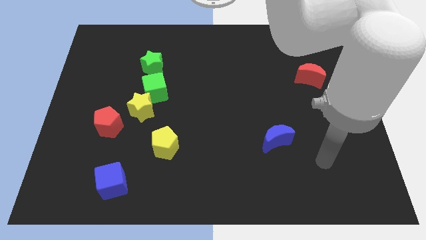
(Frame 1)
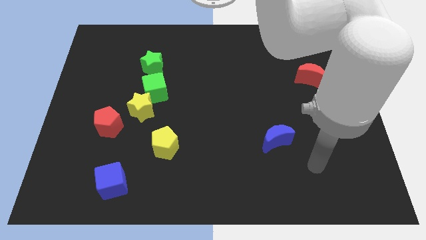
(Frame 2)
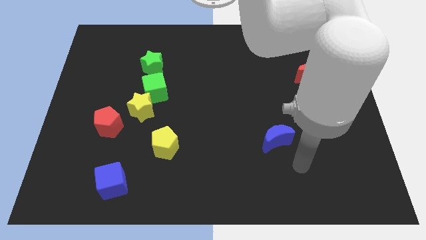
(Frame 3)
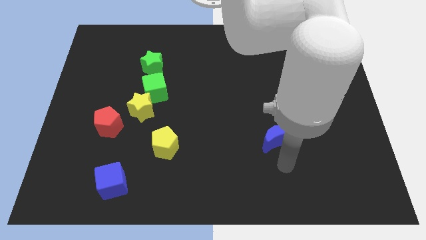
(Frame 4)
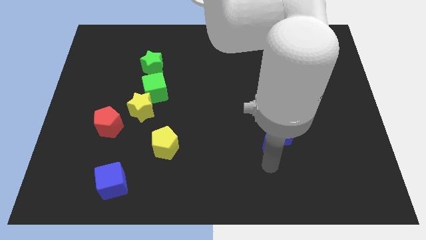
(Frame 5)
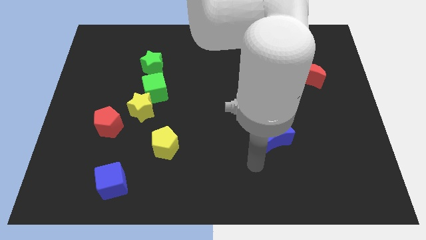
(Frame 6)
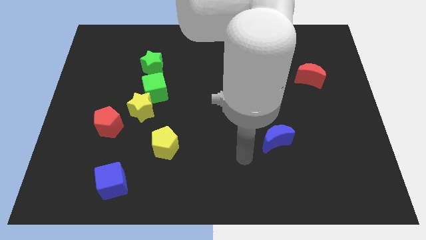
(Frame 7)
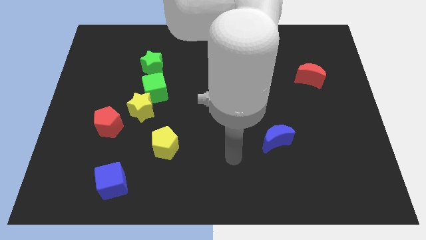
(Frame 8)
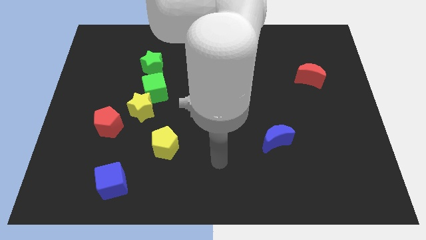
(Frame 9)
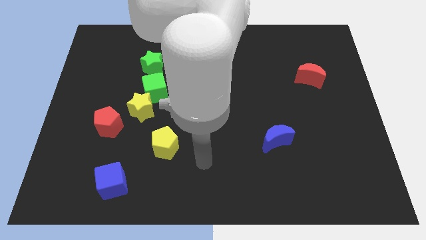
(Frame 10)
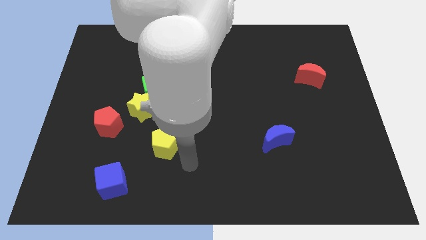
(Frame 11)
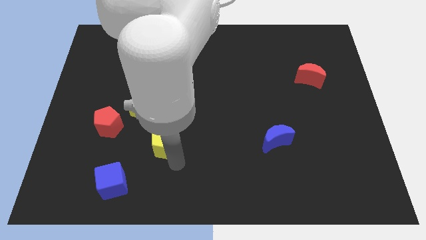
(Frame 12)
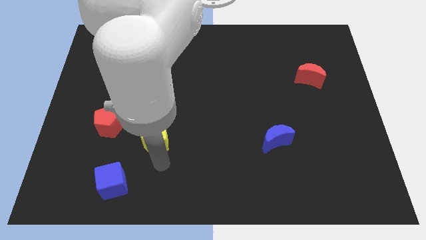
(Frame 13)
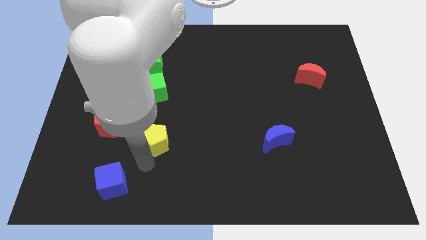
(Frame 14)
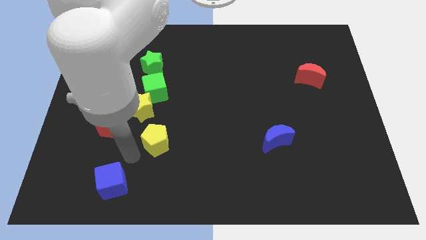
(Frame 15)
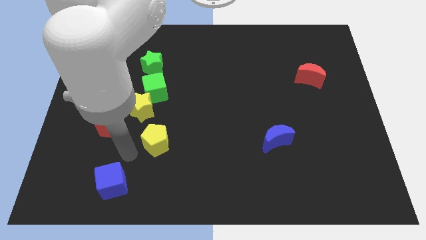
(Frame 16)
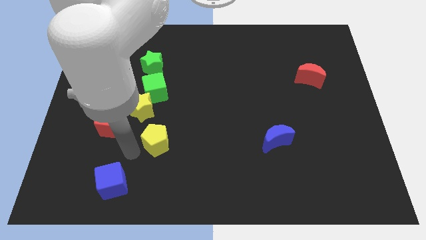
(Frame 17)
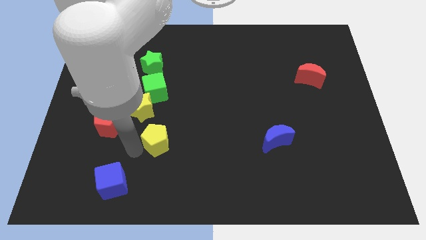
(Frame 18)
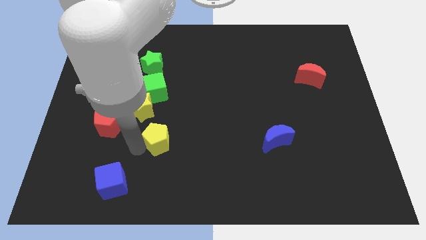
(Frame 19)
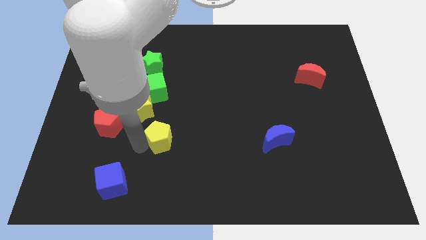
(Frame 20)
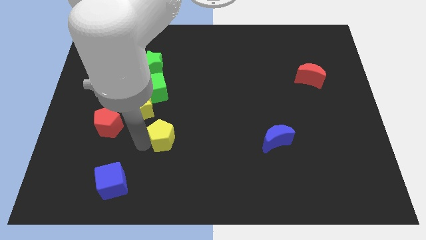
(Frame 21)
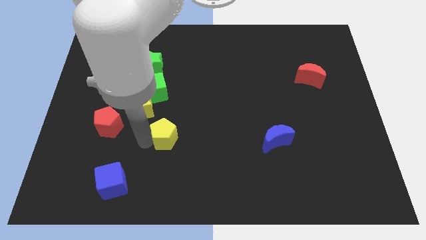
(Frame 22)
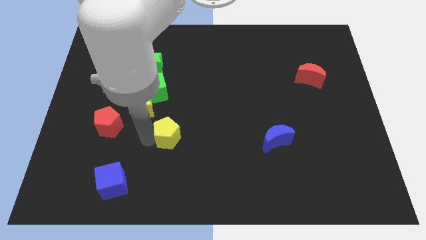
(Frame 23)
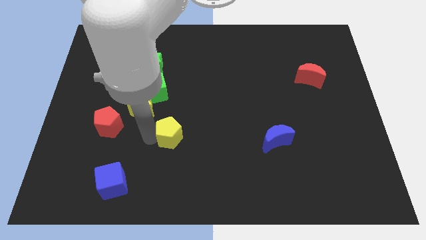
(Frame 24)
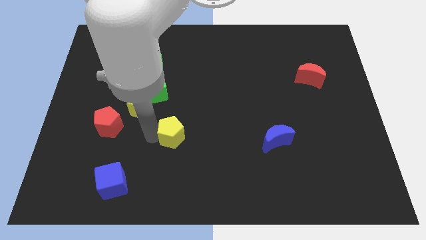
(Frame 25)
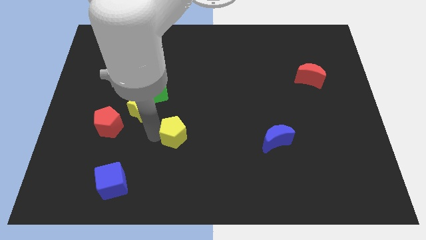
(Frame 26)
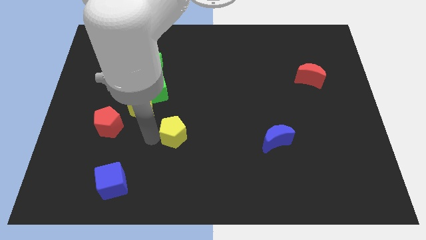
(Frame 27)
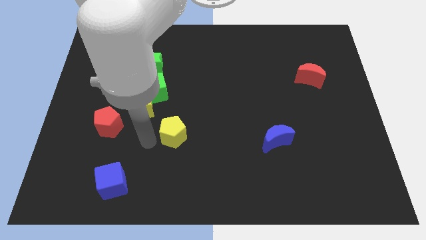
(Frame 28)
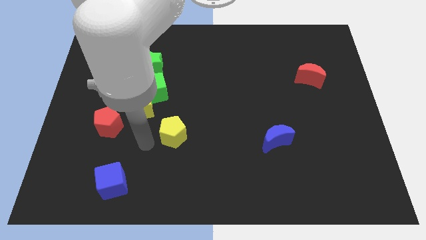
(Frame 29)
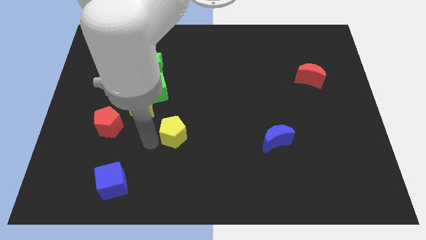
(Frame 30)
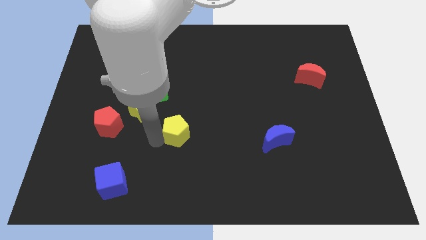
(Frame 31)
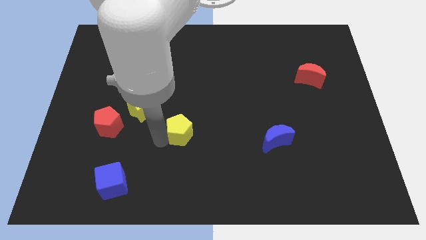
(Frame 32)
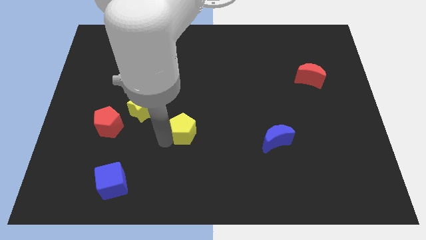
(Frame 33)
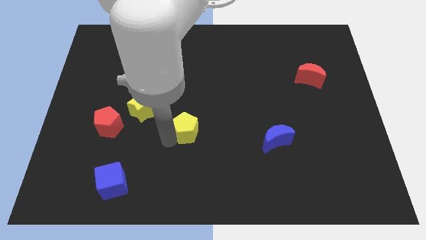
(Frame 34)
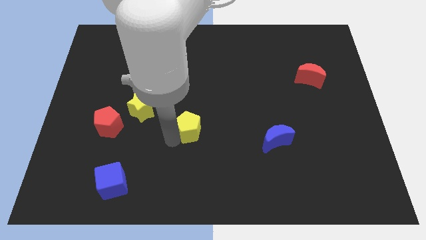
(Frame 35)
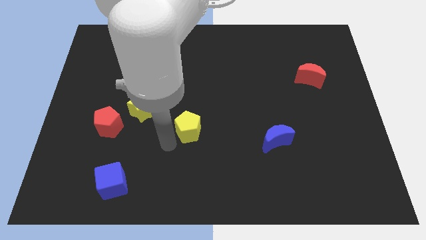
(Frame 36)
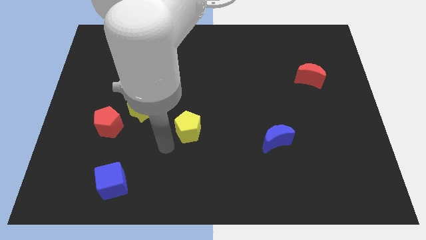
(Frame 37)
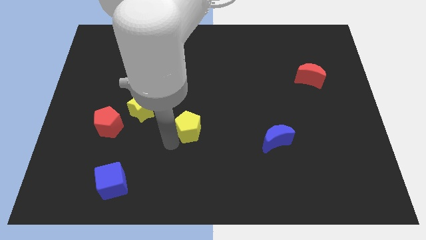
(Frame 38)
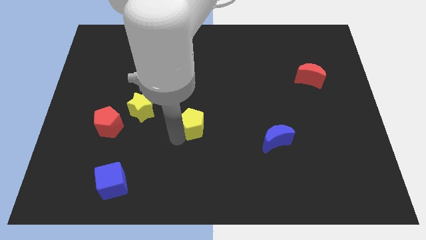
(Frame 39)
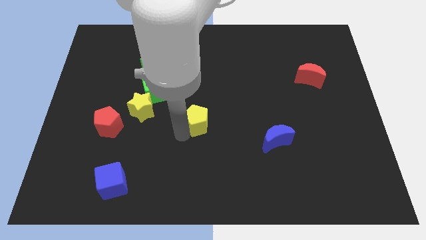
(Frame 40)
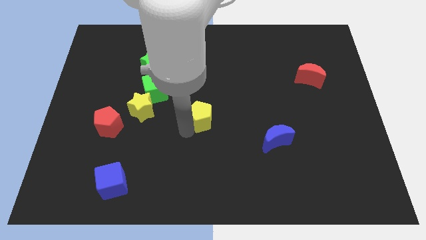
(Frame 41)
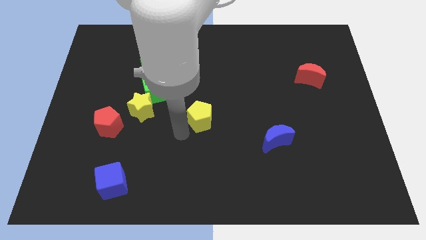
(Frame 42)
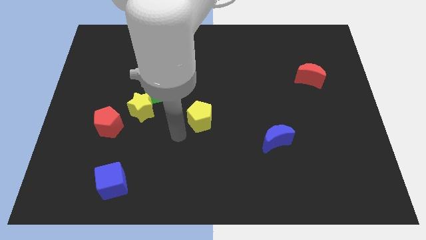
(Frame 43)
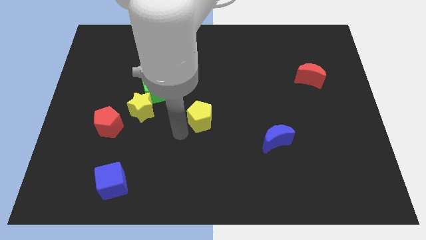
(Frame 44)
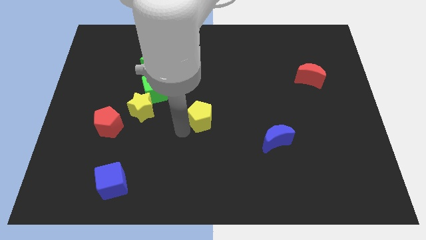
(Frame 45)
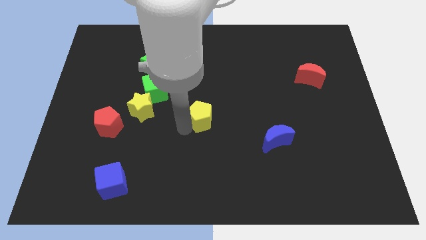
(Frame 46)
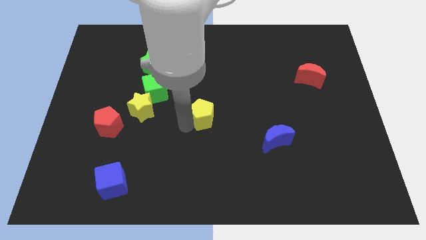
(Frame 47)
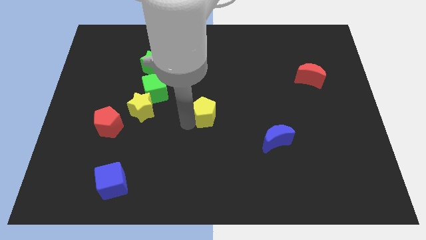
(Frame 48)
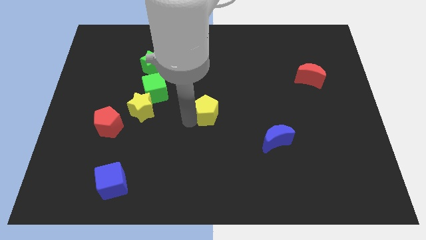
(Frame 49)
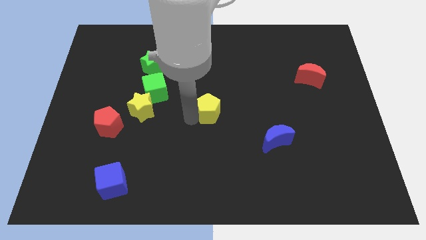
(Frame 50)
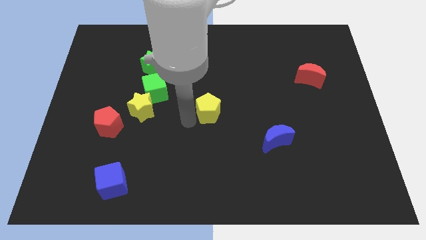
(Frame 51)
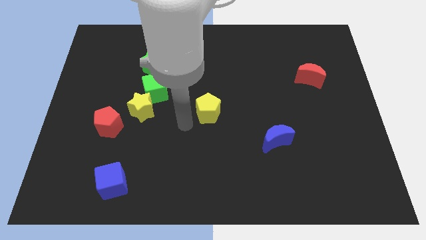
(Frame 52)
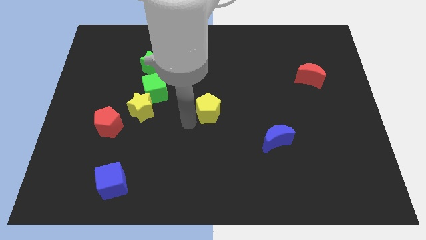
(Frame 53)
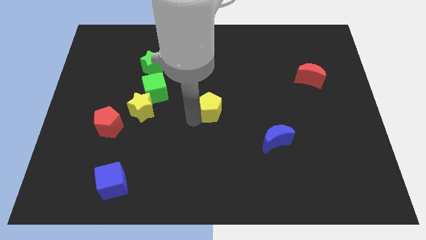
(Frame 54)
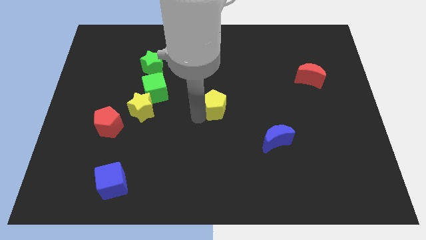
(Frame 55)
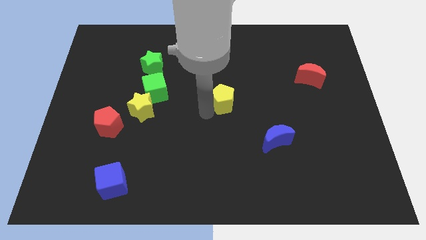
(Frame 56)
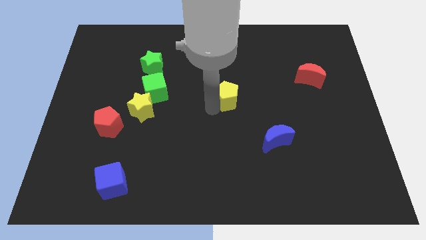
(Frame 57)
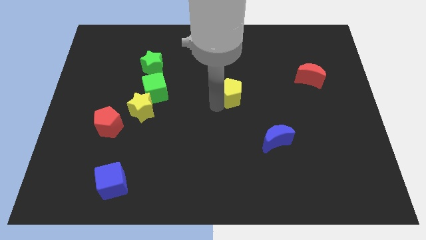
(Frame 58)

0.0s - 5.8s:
push the yellow pentagon up and to the right diagonally

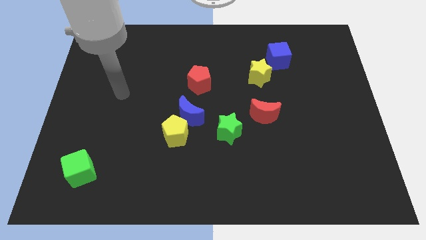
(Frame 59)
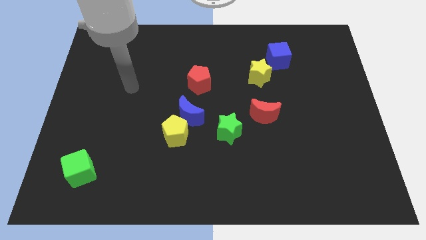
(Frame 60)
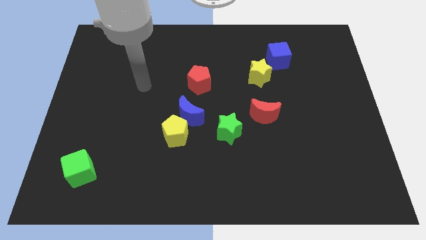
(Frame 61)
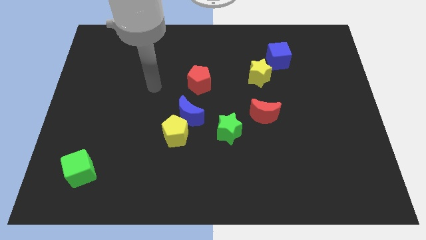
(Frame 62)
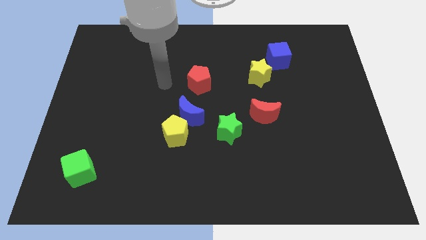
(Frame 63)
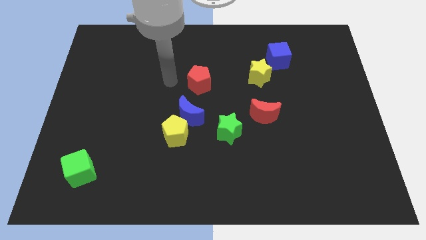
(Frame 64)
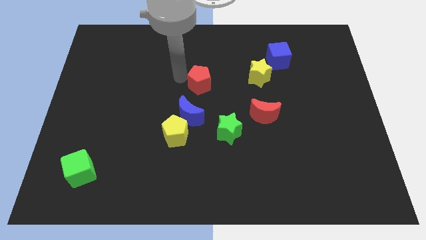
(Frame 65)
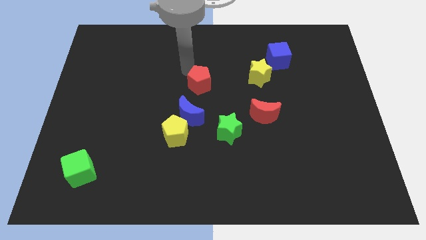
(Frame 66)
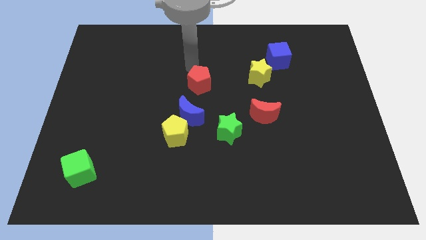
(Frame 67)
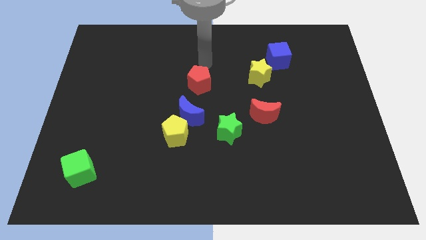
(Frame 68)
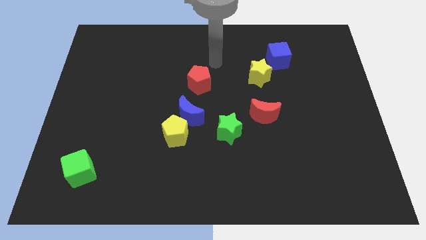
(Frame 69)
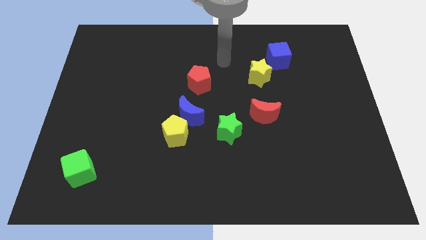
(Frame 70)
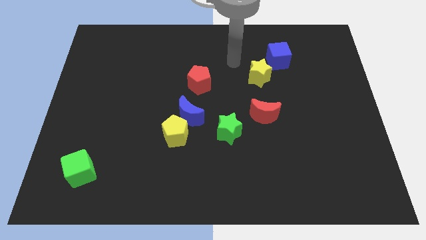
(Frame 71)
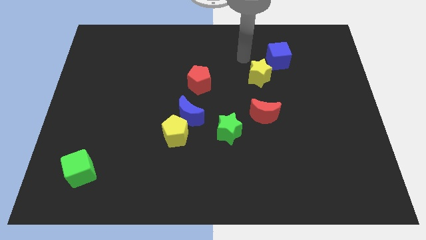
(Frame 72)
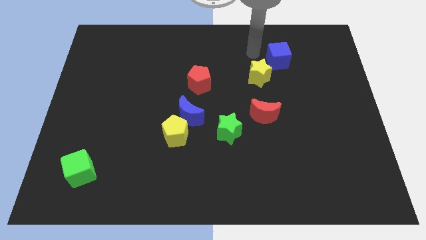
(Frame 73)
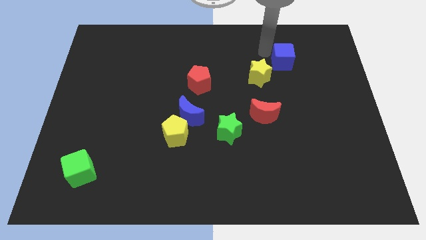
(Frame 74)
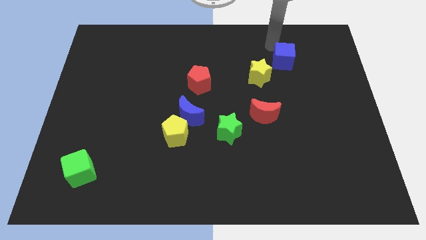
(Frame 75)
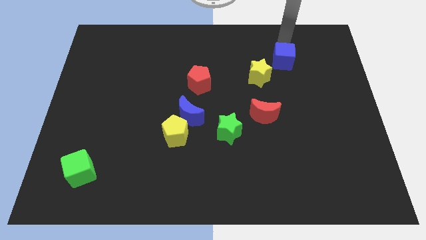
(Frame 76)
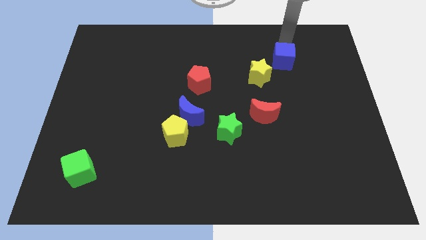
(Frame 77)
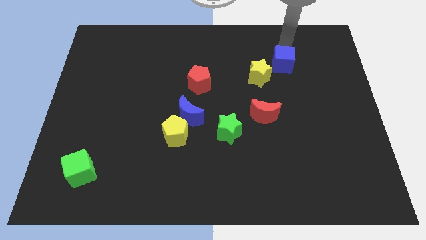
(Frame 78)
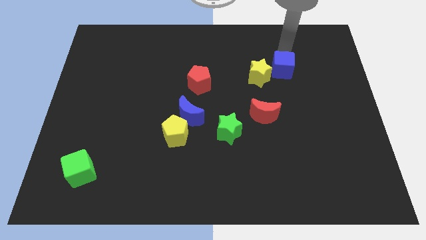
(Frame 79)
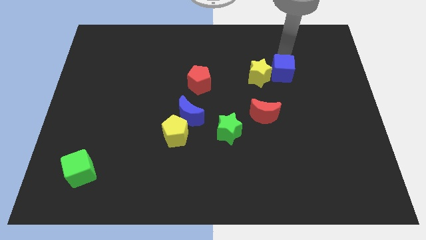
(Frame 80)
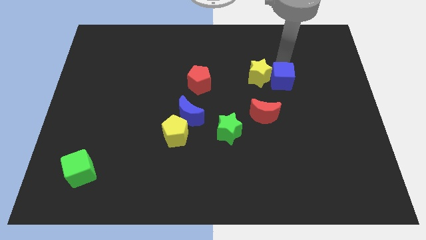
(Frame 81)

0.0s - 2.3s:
slide the blue cube somewhat down

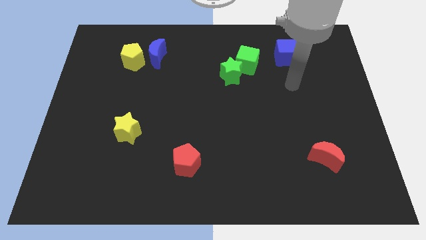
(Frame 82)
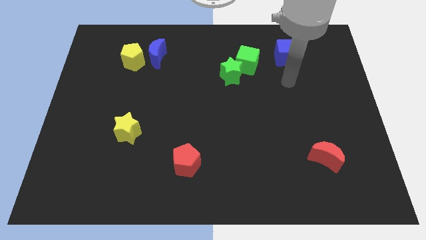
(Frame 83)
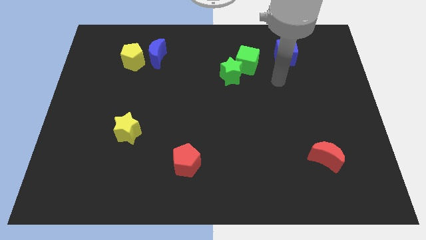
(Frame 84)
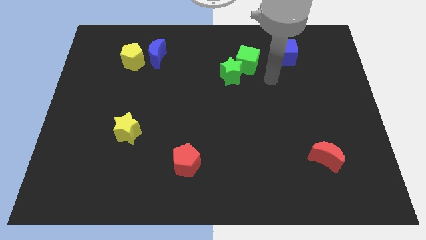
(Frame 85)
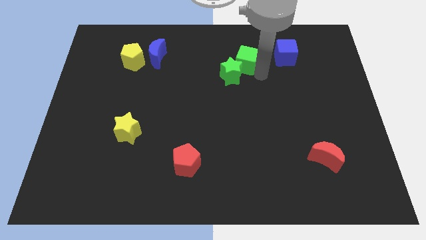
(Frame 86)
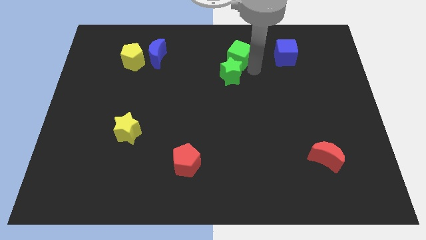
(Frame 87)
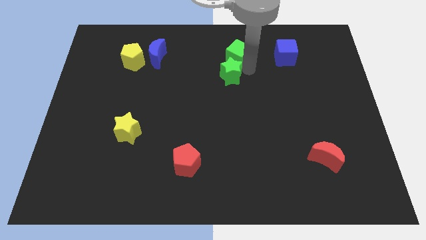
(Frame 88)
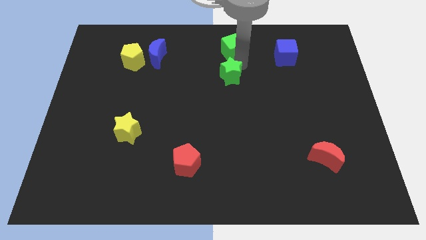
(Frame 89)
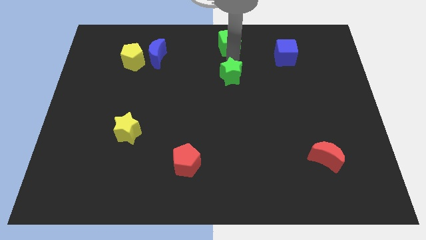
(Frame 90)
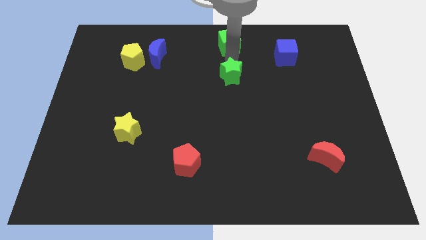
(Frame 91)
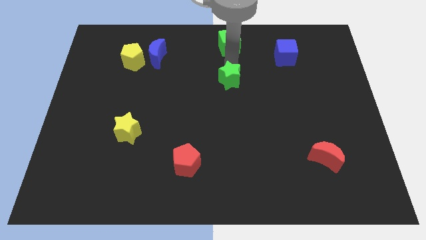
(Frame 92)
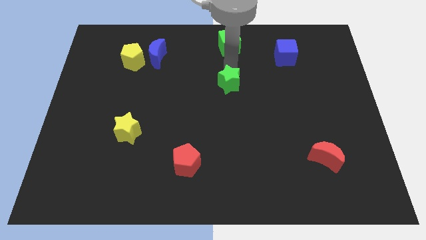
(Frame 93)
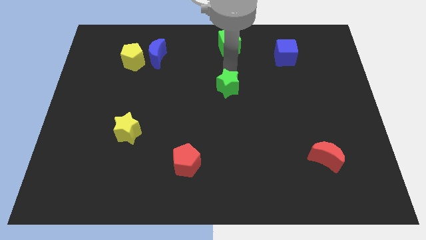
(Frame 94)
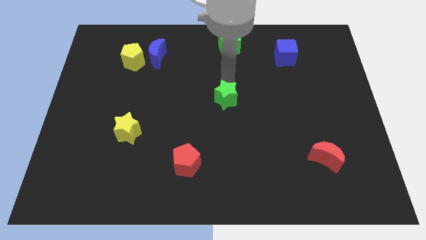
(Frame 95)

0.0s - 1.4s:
slightly slide the green star down
